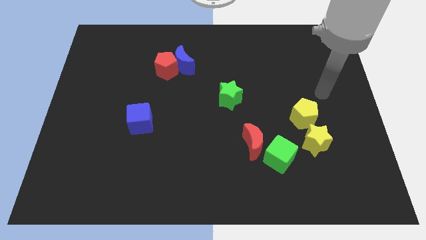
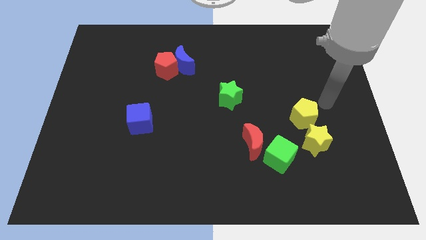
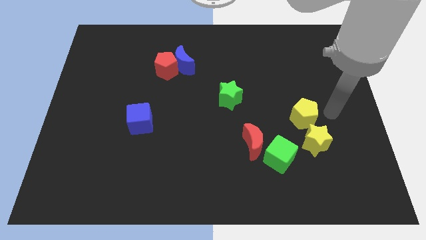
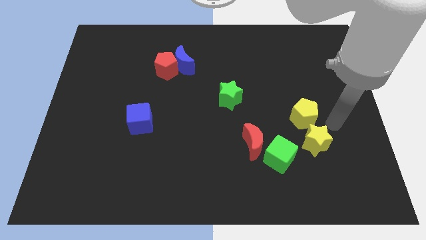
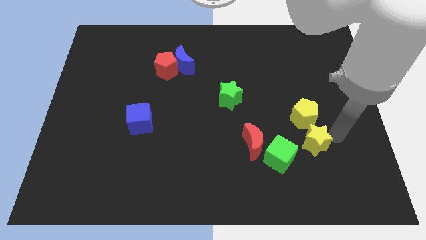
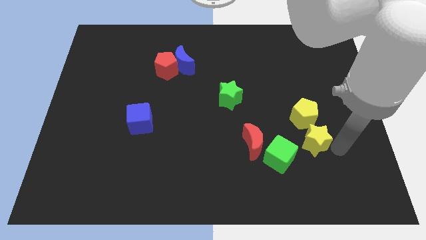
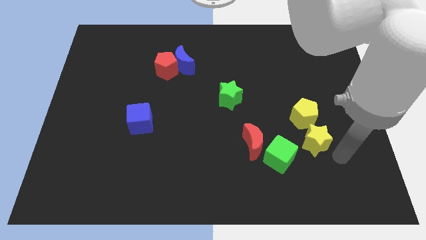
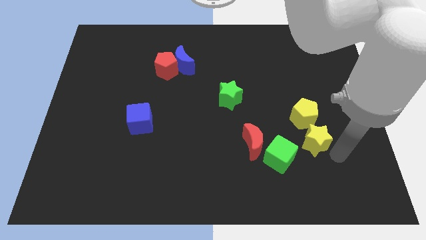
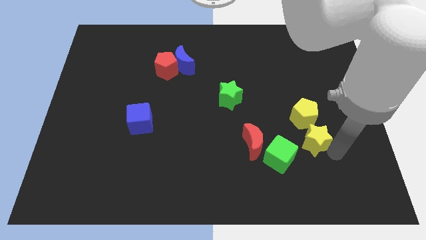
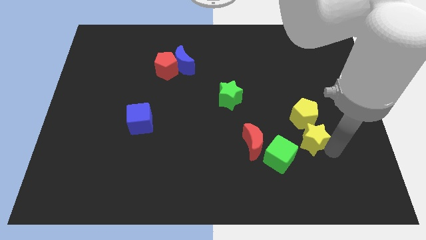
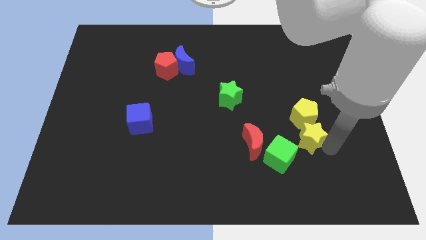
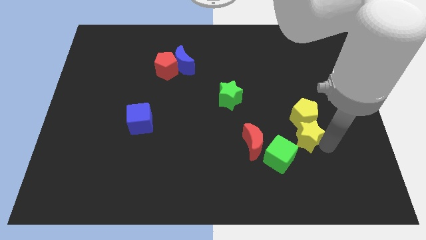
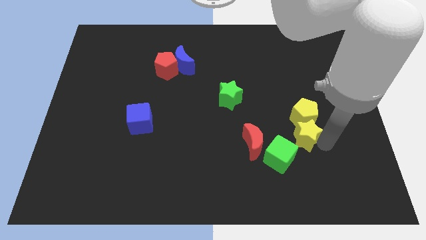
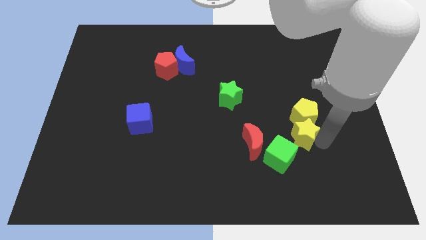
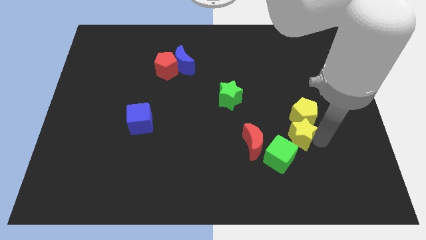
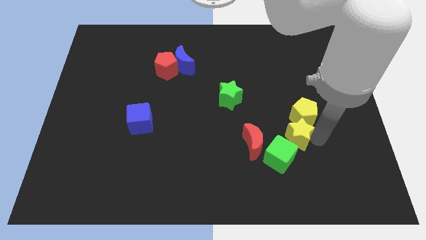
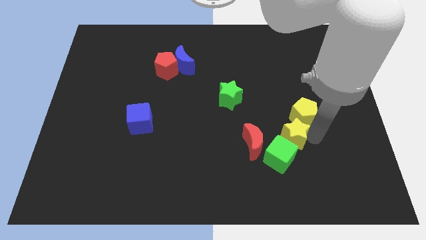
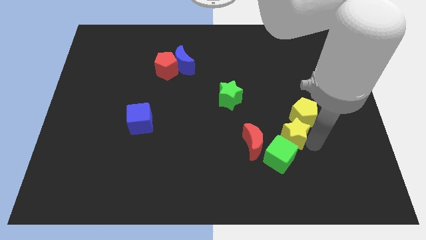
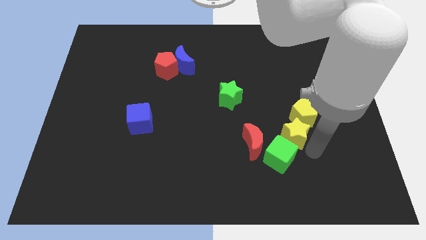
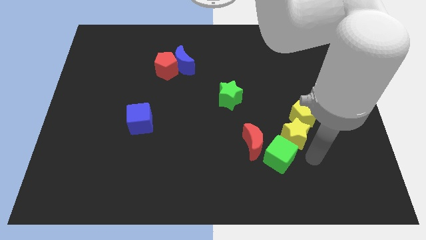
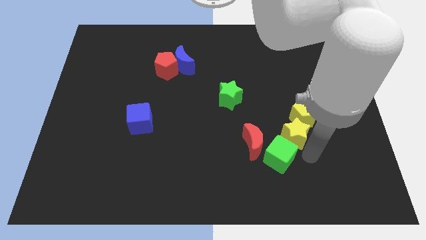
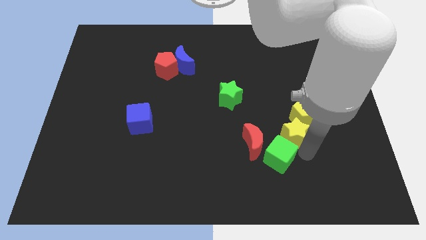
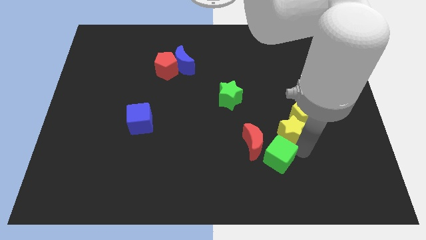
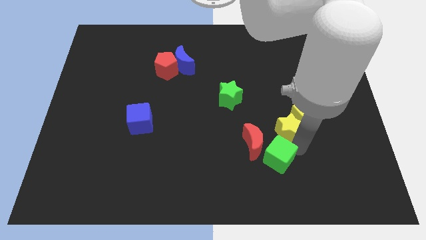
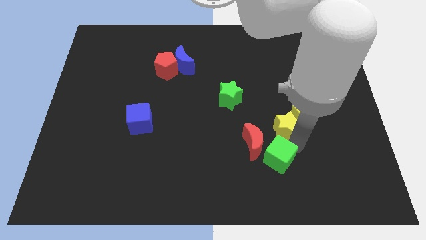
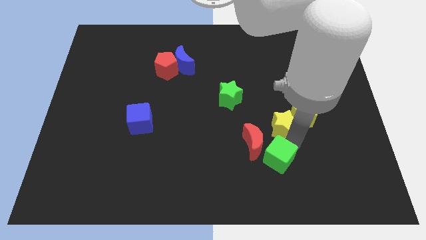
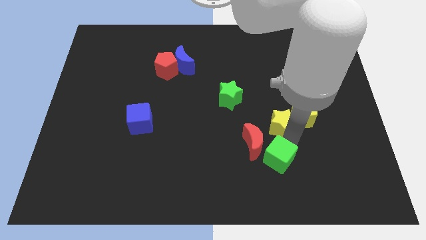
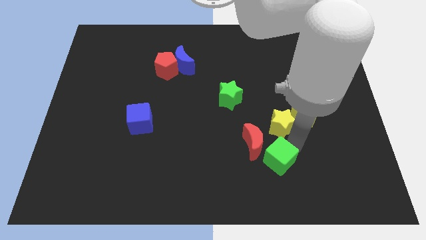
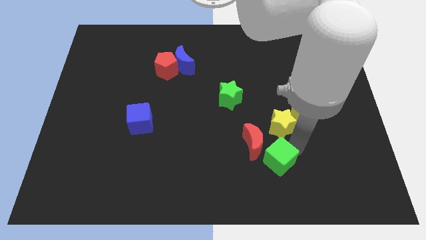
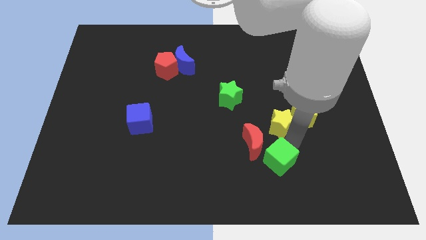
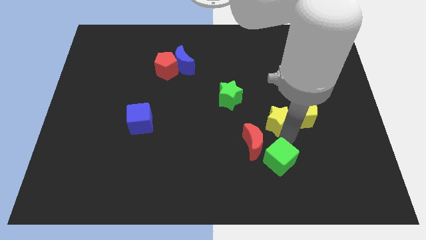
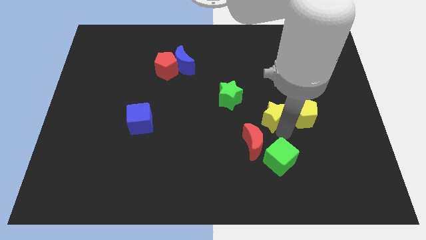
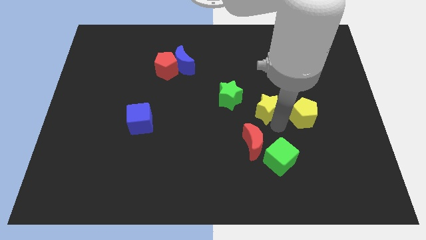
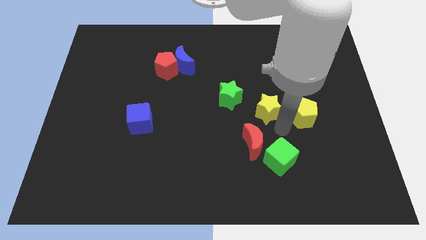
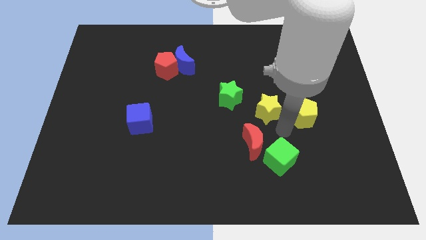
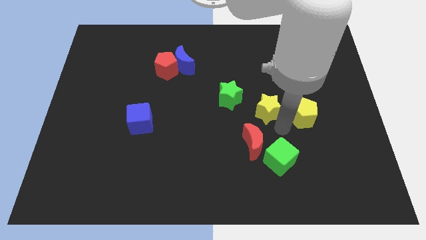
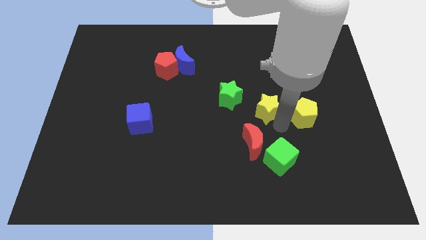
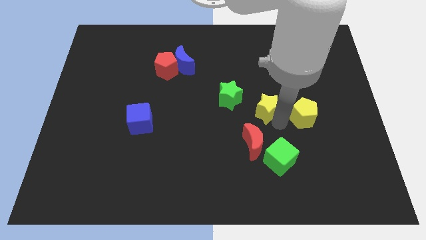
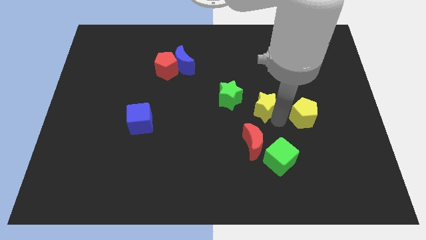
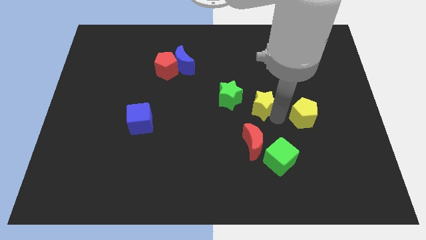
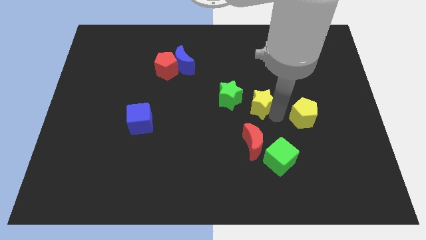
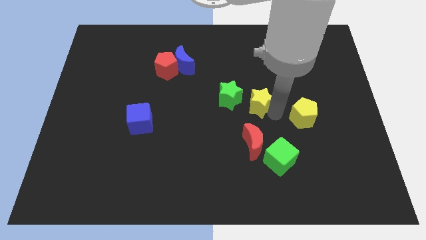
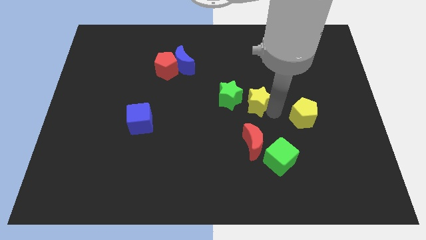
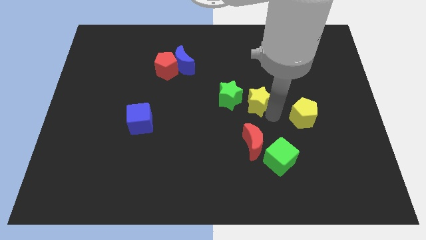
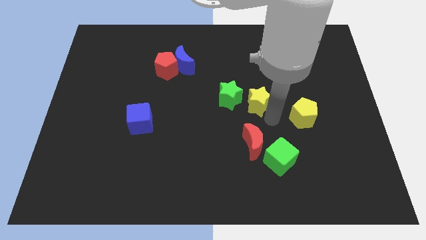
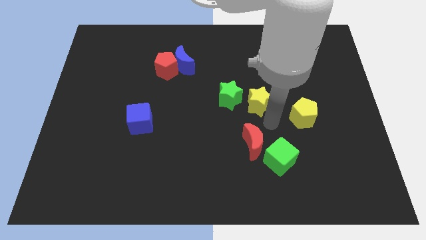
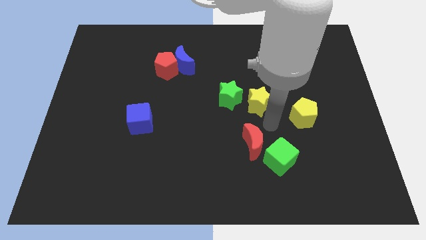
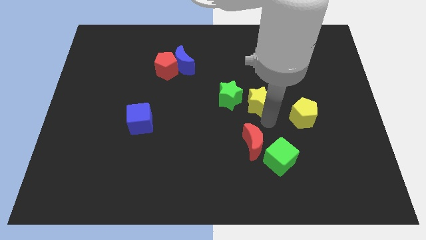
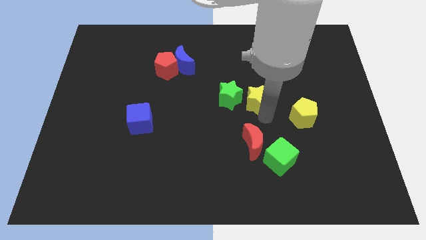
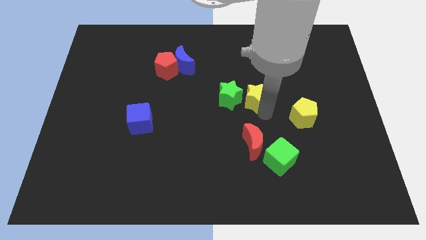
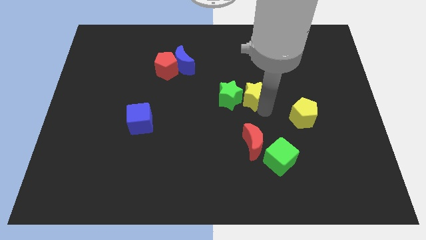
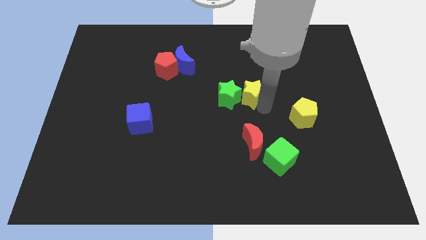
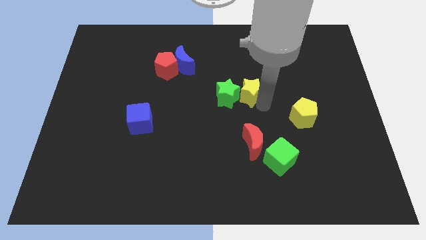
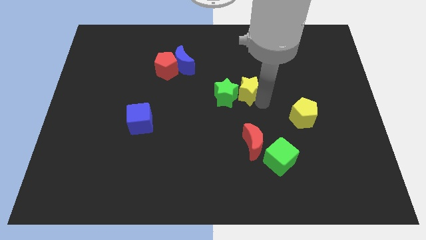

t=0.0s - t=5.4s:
slide the yellow star upwards and to the left diagonally

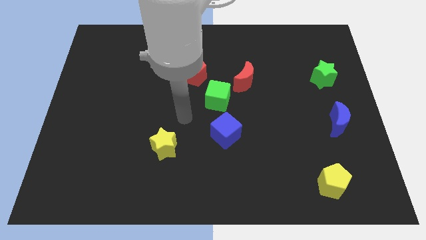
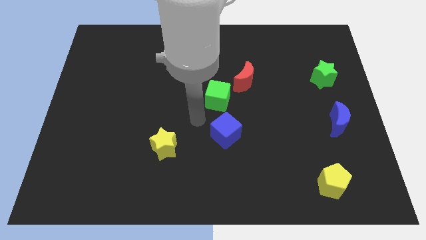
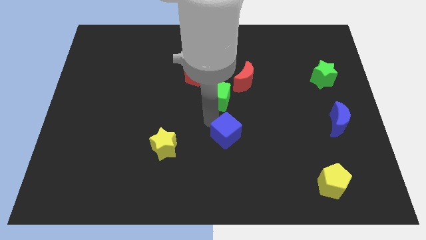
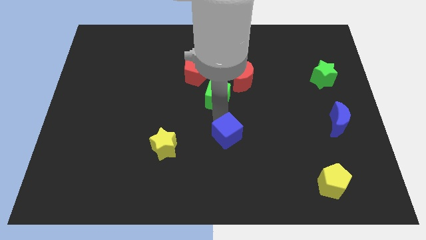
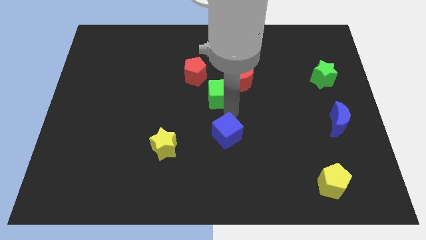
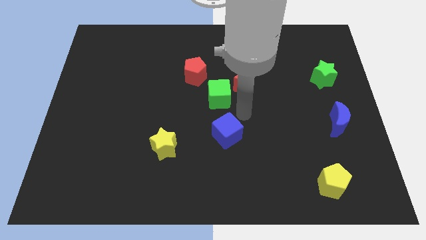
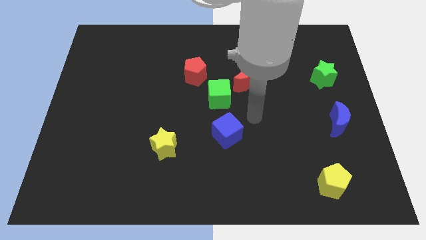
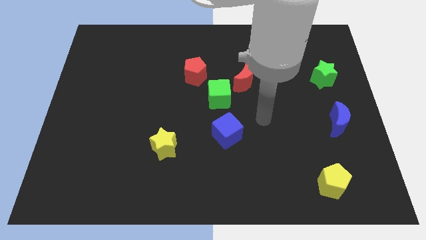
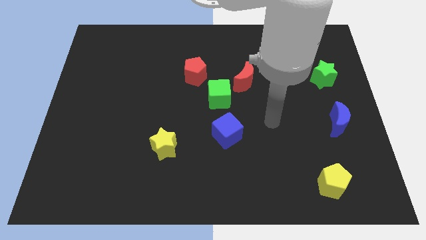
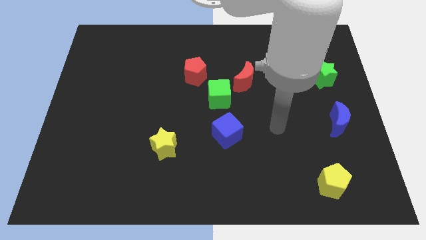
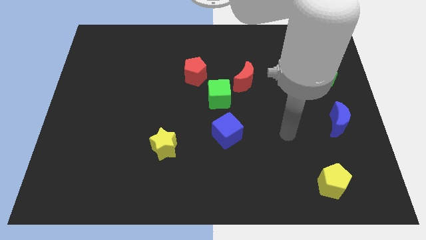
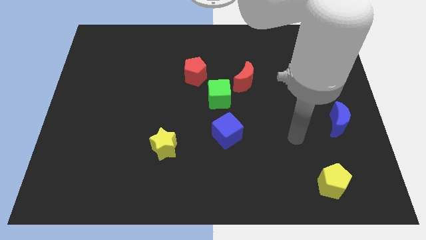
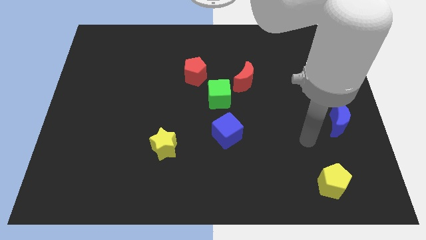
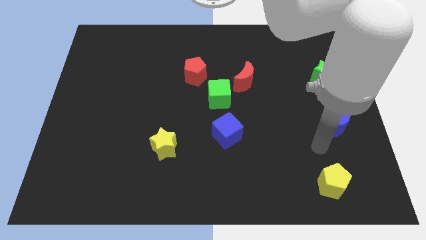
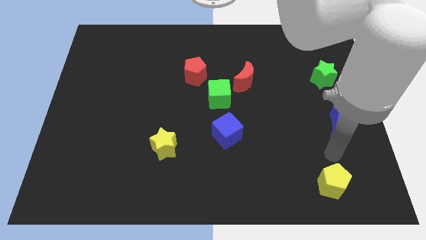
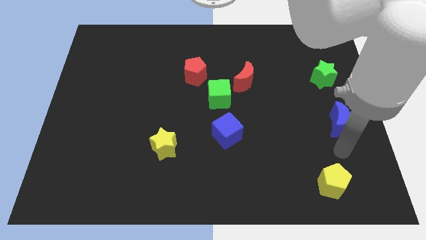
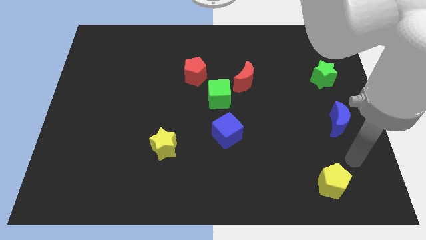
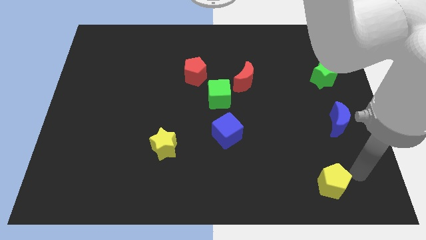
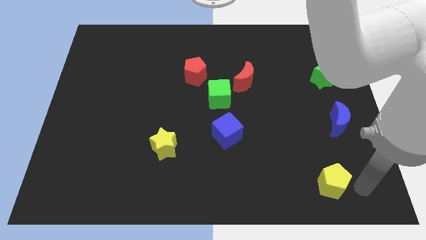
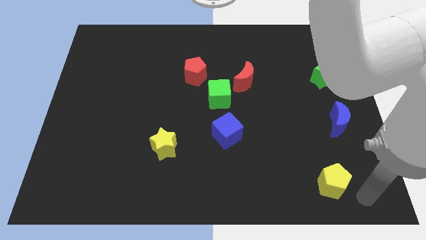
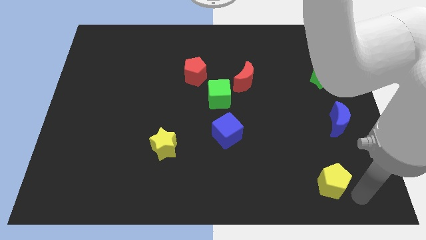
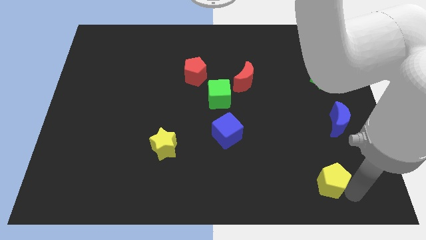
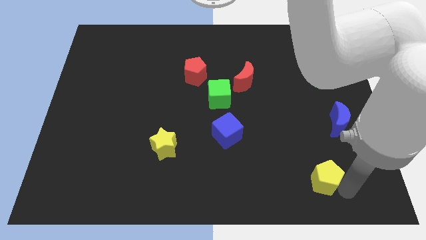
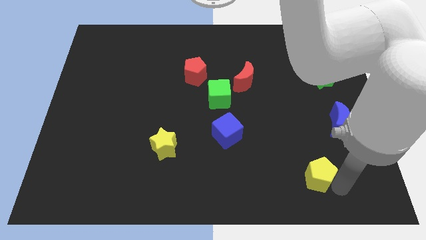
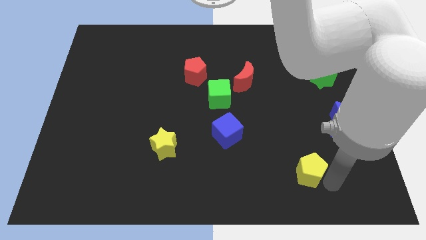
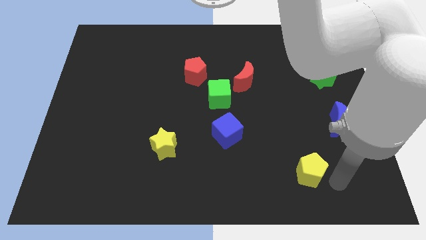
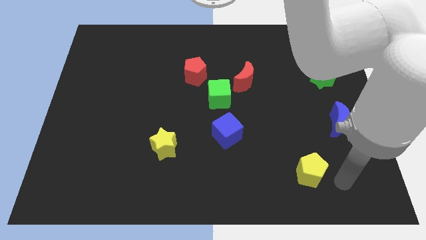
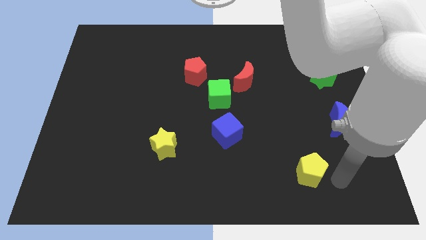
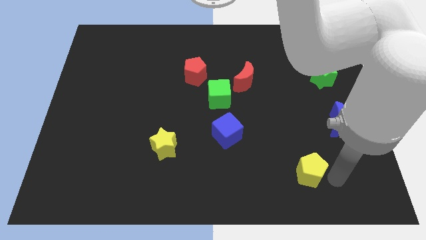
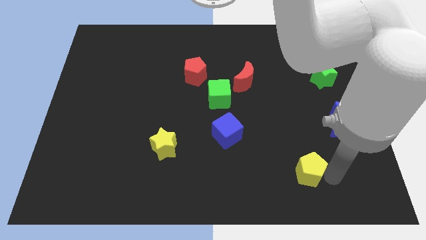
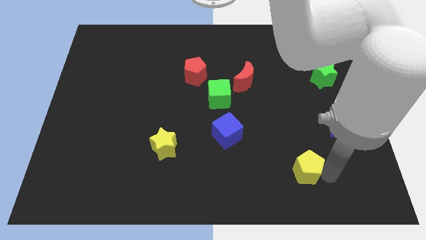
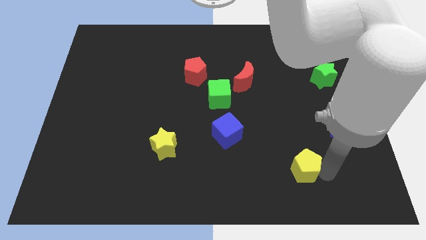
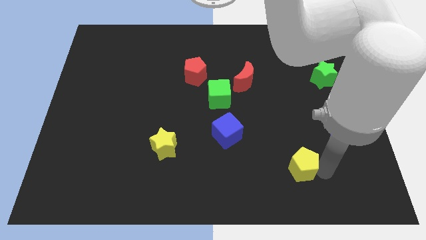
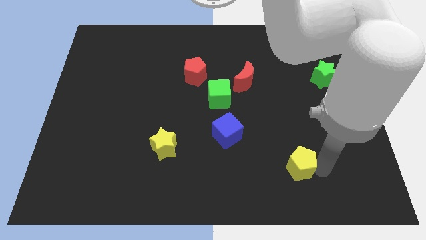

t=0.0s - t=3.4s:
slide the yellow pentagon somewhat upwards and left
